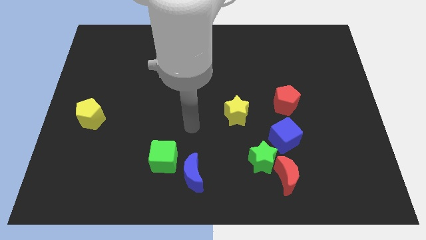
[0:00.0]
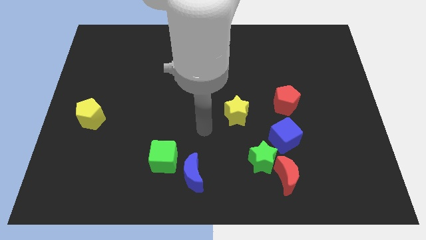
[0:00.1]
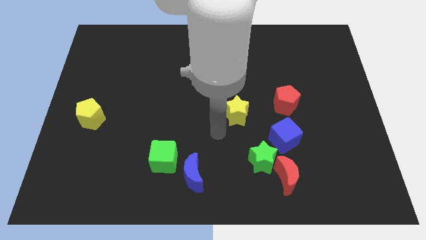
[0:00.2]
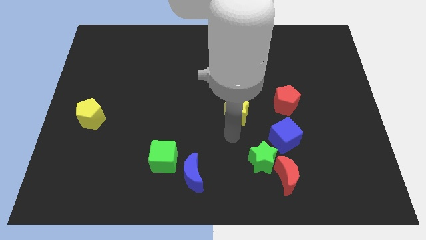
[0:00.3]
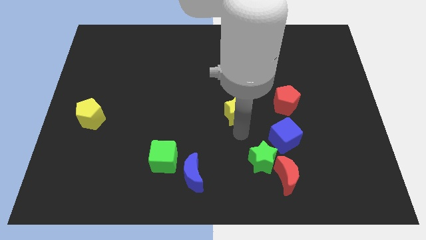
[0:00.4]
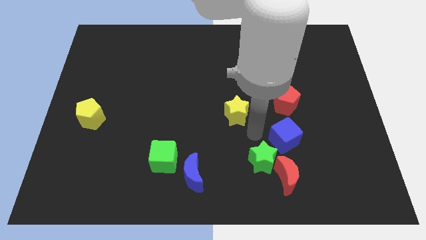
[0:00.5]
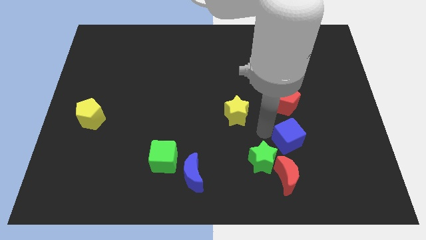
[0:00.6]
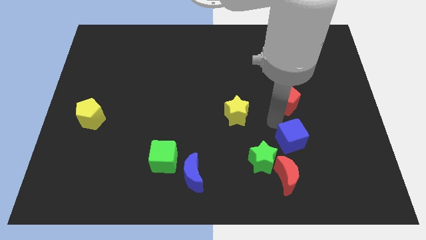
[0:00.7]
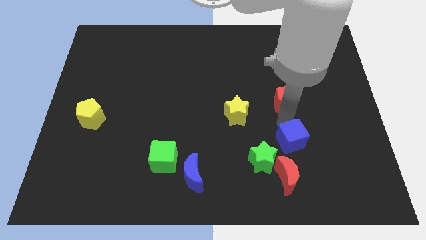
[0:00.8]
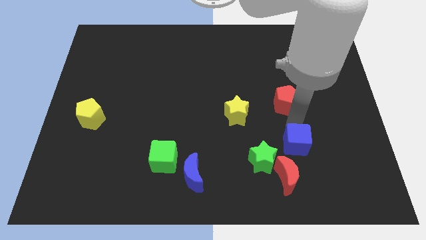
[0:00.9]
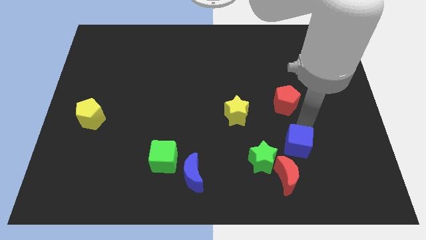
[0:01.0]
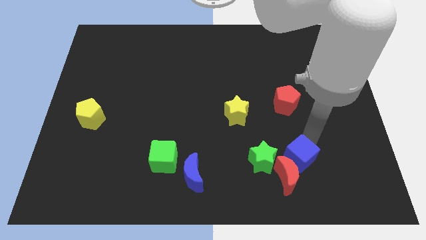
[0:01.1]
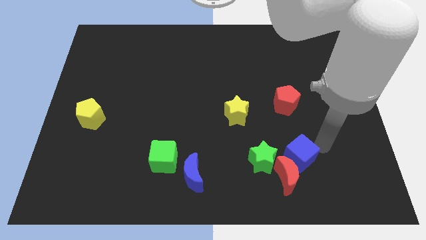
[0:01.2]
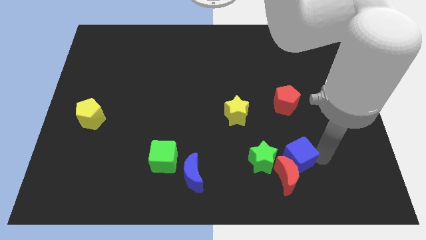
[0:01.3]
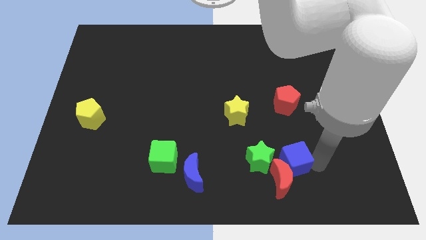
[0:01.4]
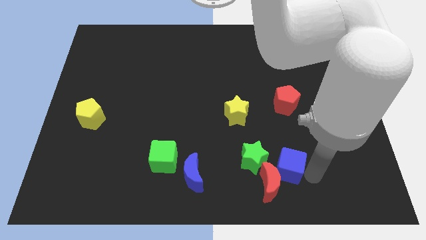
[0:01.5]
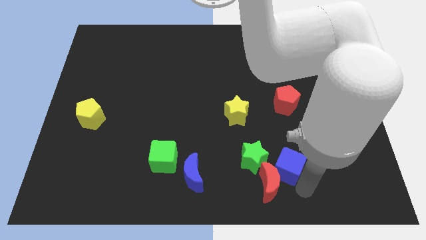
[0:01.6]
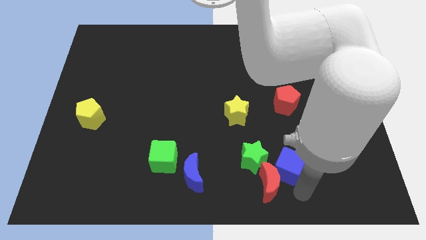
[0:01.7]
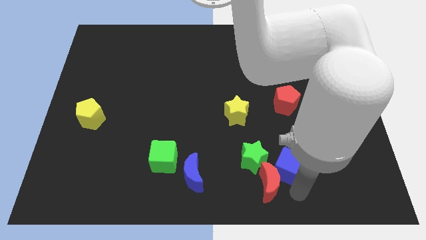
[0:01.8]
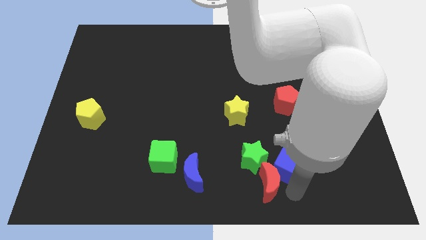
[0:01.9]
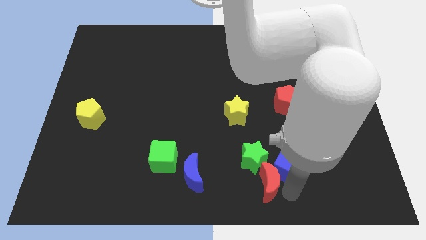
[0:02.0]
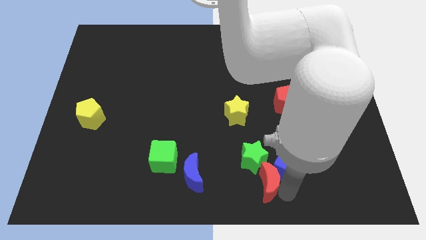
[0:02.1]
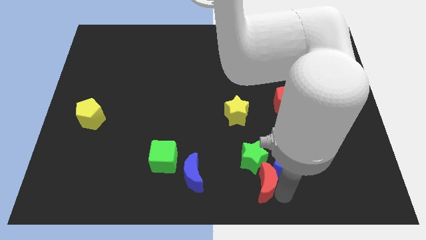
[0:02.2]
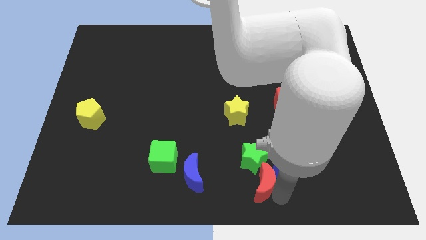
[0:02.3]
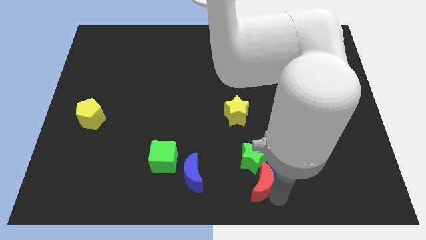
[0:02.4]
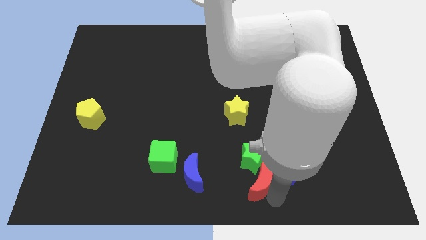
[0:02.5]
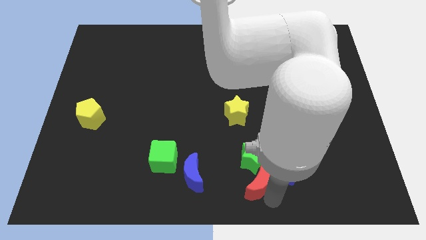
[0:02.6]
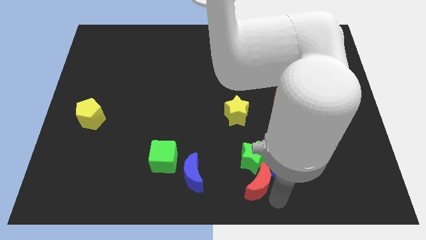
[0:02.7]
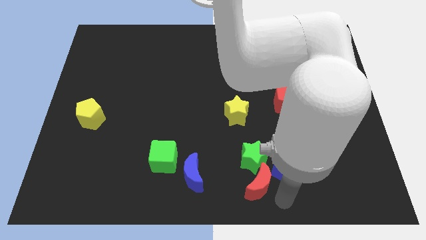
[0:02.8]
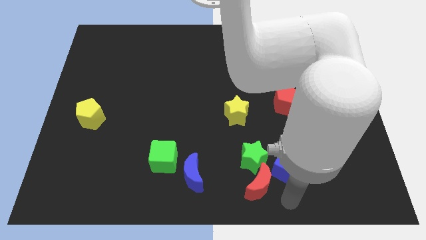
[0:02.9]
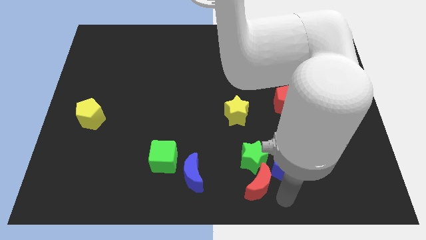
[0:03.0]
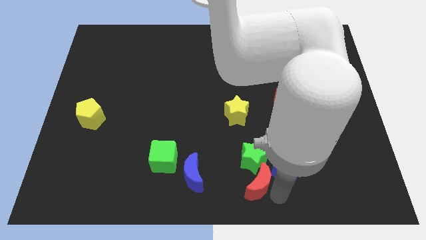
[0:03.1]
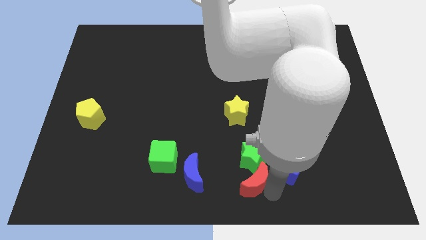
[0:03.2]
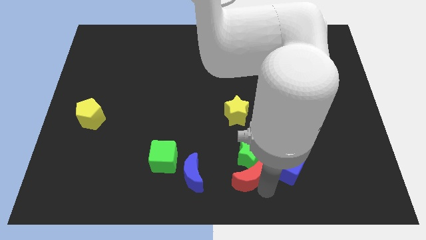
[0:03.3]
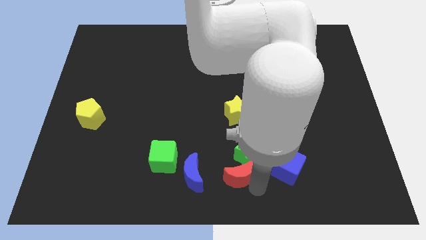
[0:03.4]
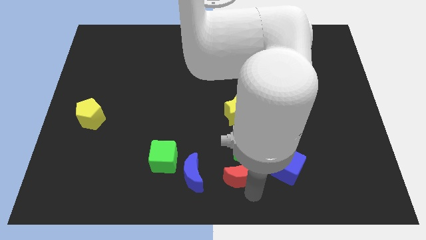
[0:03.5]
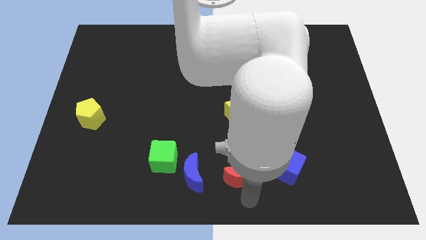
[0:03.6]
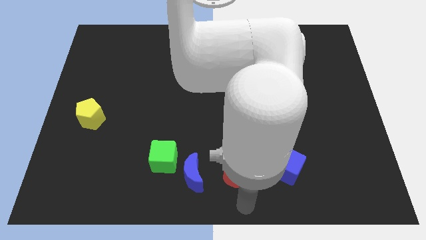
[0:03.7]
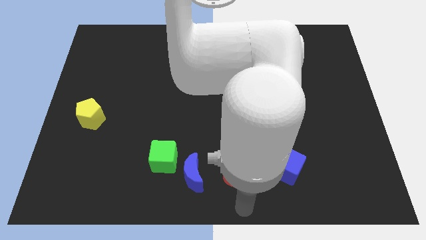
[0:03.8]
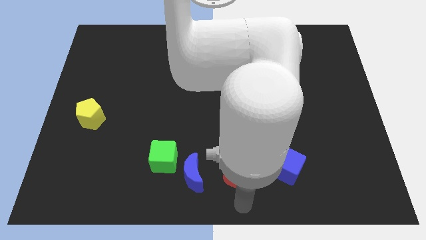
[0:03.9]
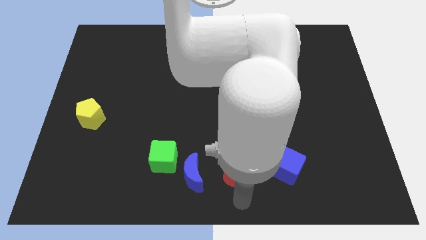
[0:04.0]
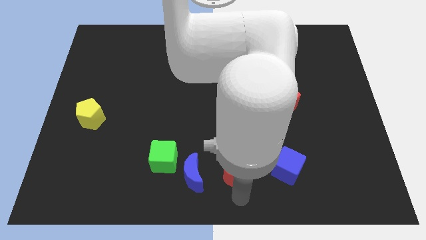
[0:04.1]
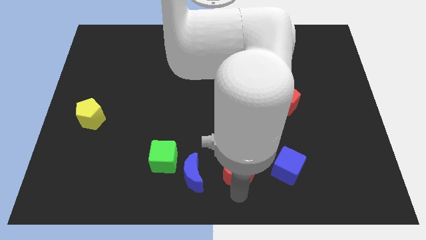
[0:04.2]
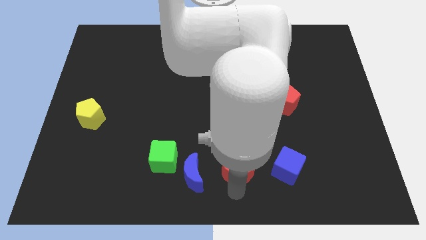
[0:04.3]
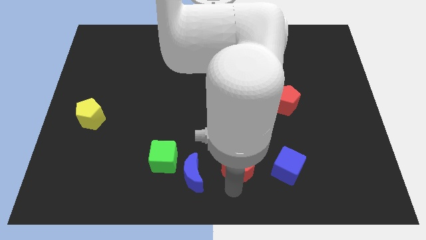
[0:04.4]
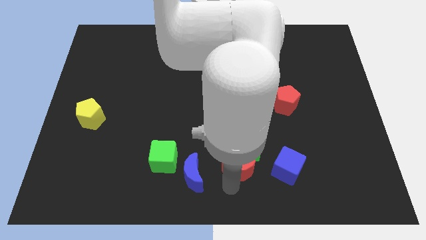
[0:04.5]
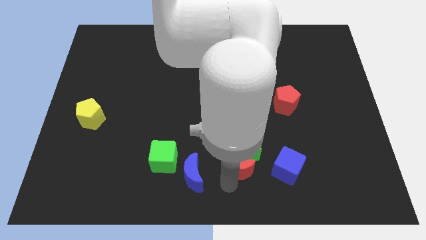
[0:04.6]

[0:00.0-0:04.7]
slightly move the red moon upwards and to the left

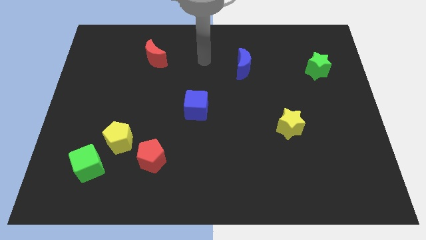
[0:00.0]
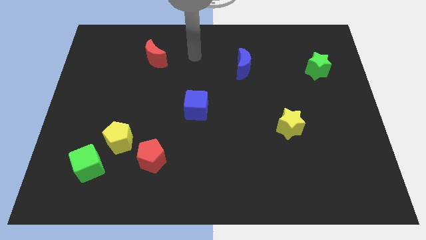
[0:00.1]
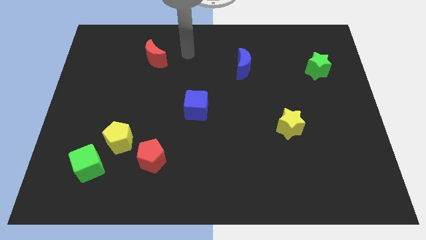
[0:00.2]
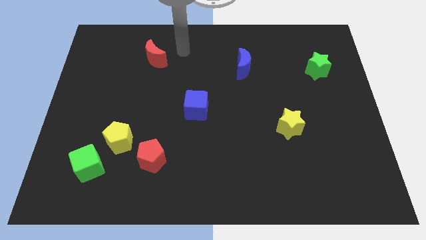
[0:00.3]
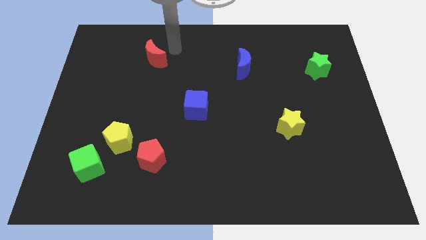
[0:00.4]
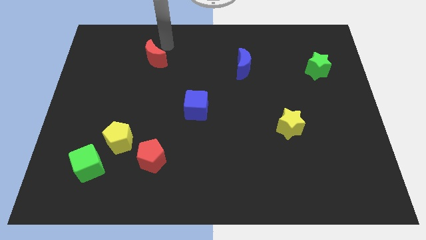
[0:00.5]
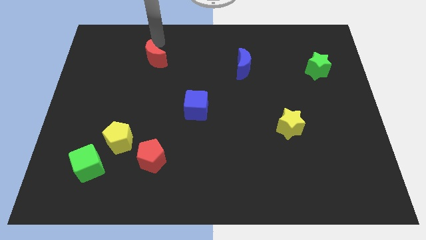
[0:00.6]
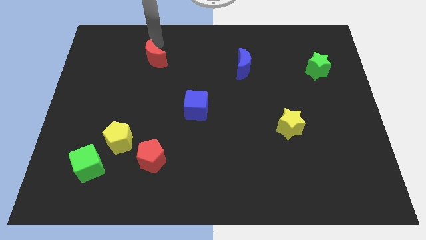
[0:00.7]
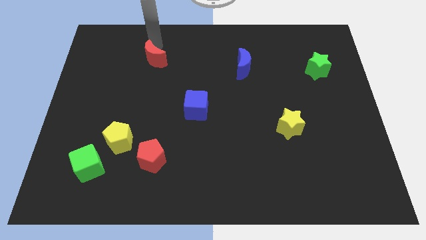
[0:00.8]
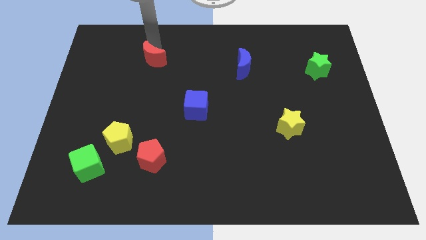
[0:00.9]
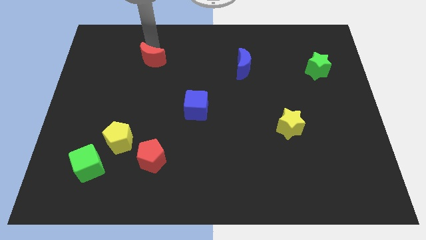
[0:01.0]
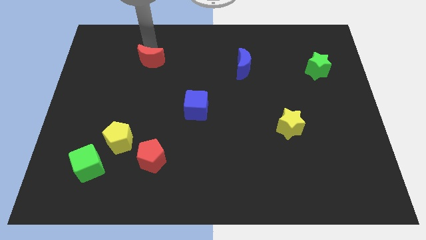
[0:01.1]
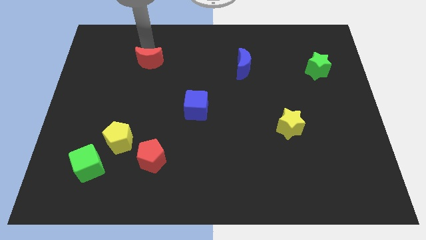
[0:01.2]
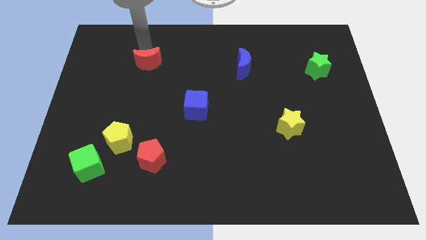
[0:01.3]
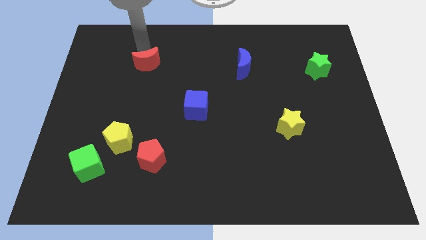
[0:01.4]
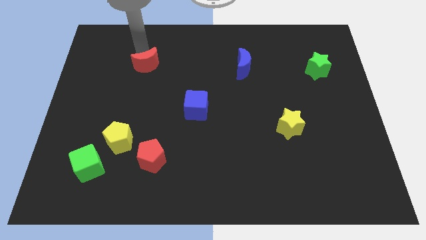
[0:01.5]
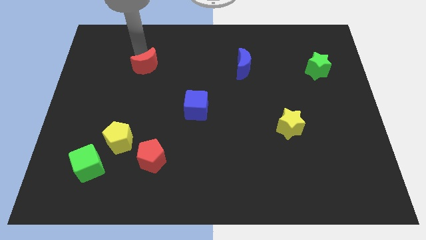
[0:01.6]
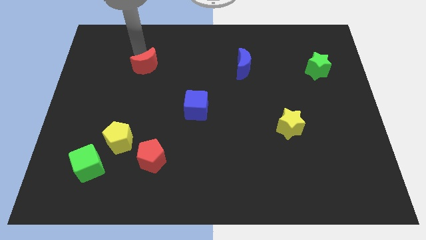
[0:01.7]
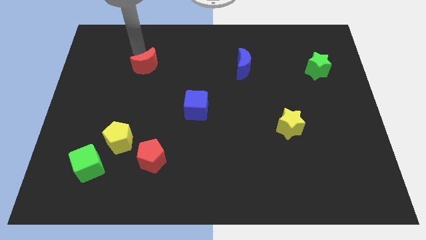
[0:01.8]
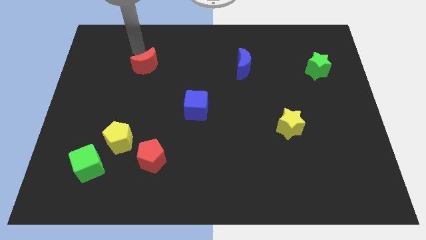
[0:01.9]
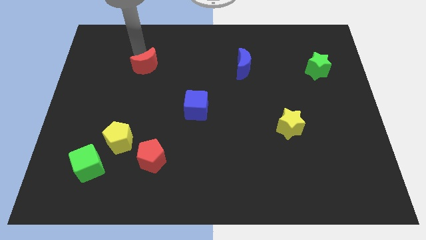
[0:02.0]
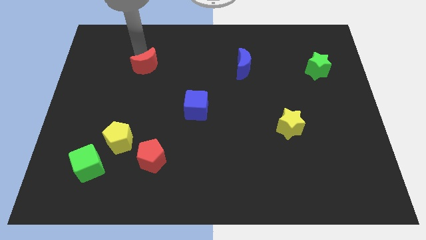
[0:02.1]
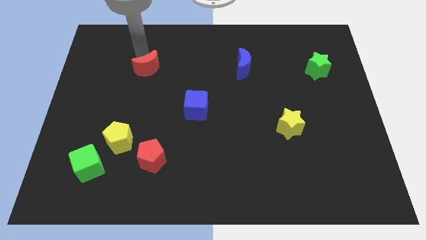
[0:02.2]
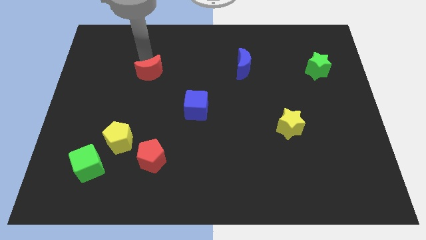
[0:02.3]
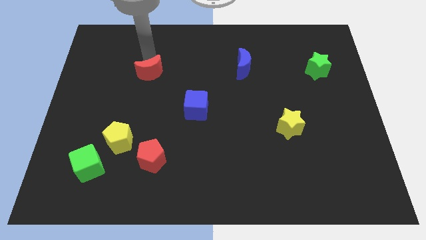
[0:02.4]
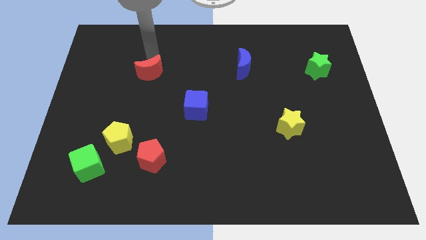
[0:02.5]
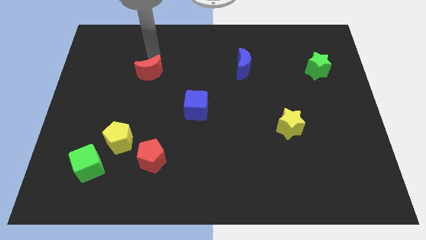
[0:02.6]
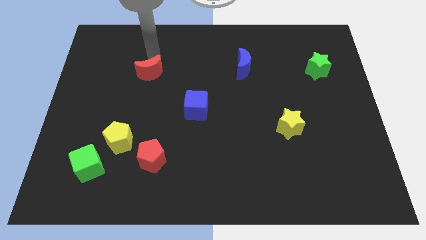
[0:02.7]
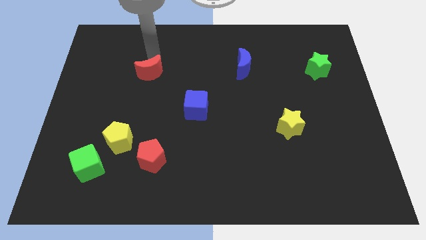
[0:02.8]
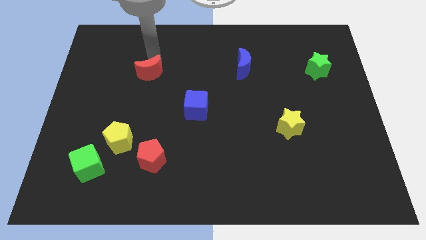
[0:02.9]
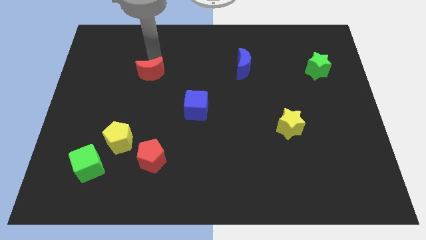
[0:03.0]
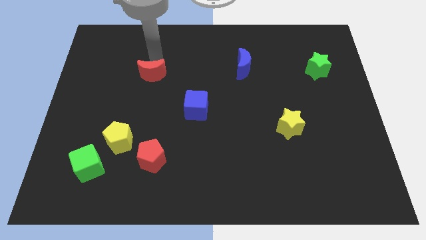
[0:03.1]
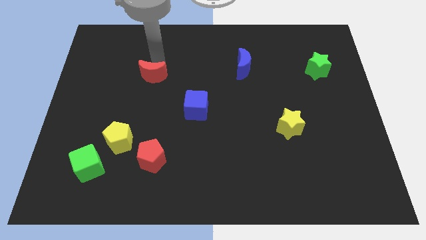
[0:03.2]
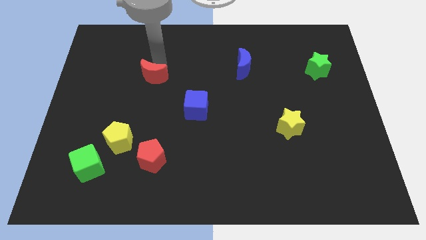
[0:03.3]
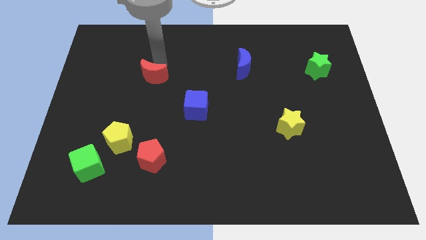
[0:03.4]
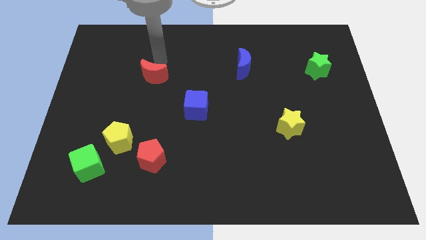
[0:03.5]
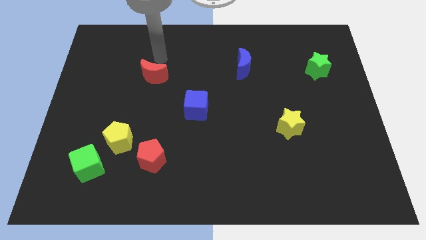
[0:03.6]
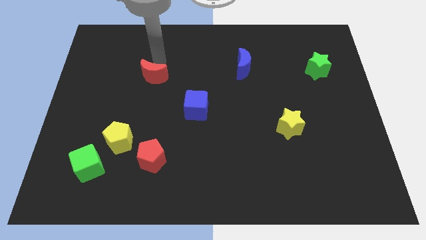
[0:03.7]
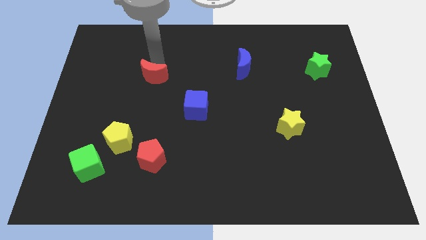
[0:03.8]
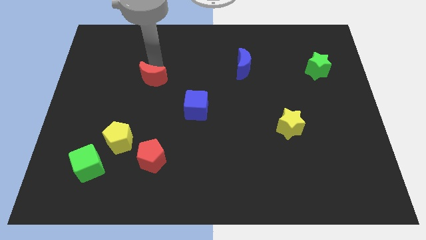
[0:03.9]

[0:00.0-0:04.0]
push the red moon somewhat downwards
